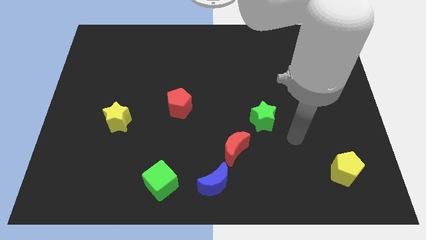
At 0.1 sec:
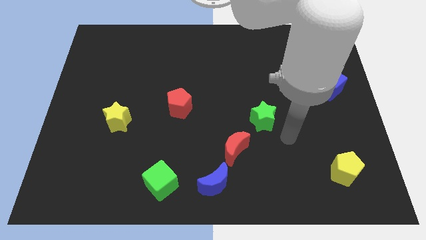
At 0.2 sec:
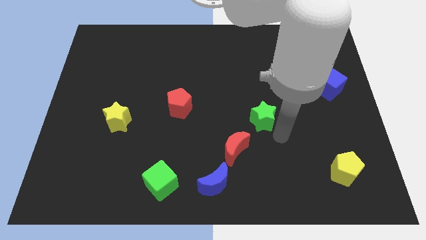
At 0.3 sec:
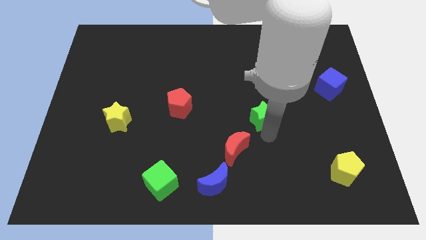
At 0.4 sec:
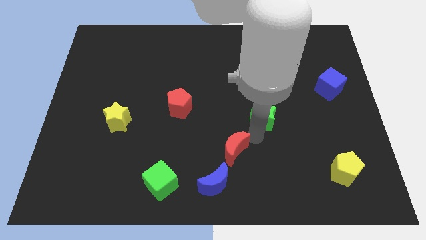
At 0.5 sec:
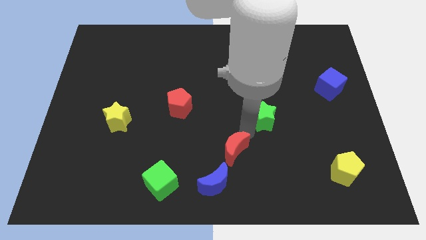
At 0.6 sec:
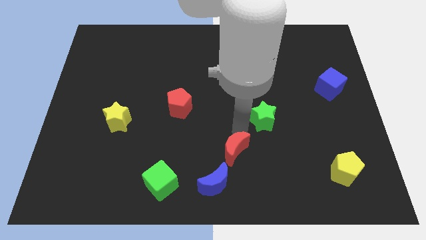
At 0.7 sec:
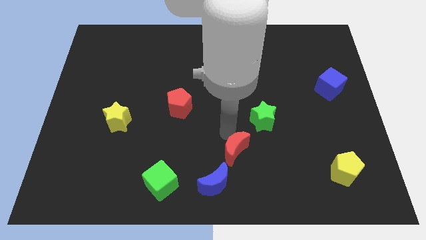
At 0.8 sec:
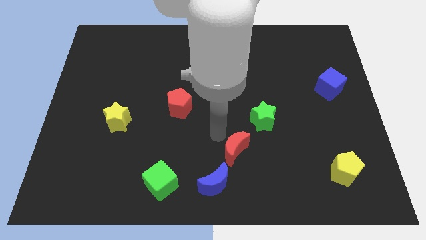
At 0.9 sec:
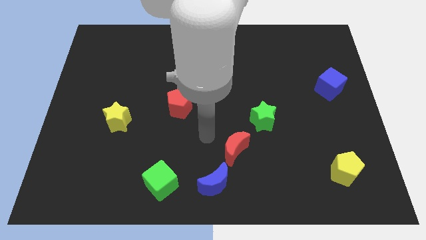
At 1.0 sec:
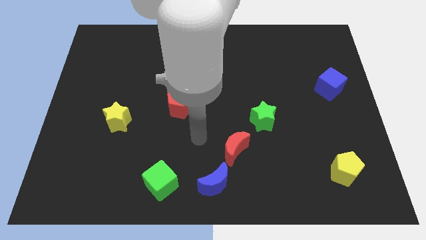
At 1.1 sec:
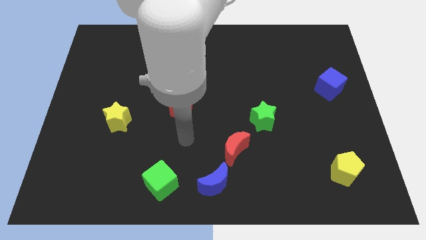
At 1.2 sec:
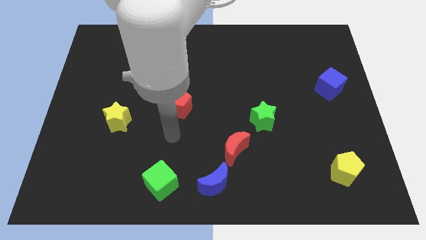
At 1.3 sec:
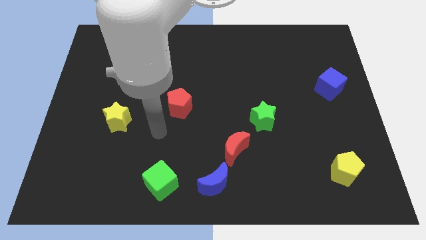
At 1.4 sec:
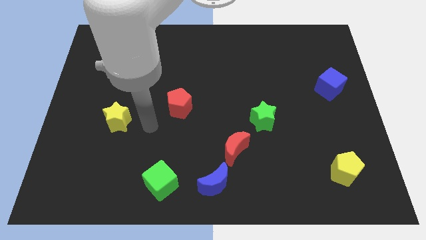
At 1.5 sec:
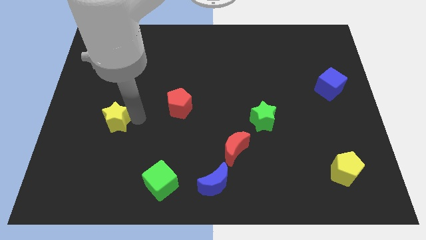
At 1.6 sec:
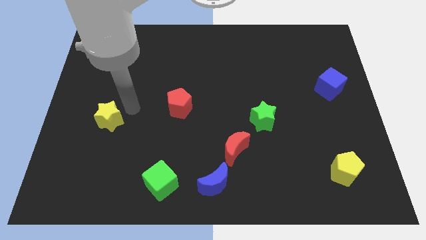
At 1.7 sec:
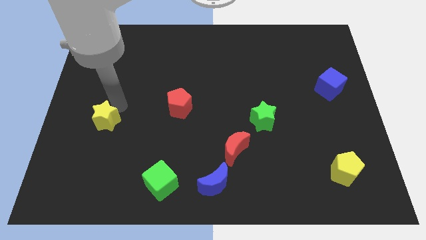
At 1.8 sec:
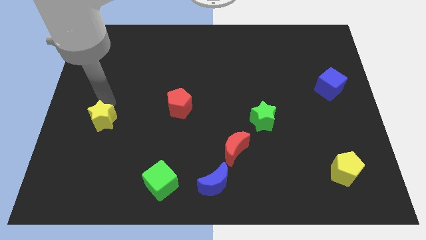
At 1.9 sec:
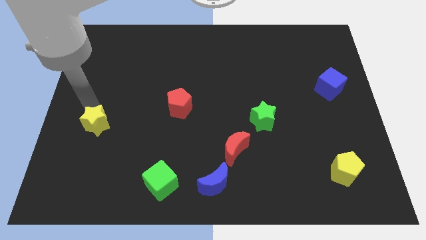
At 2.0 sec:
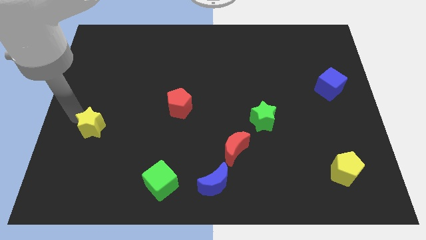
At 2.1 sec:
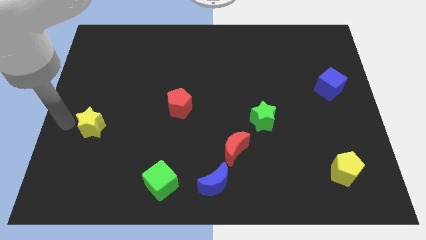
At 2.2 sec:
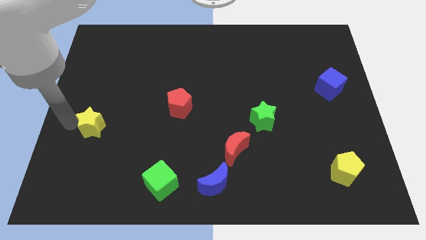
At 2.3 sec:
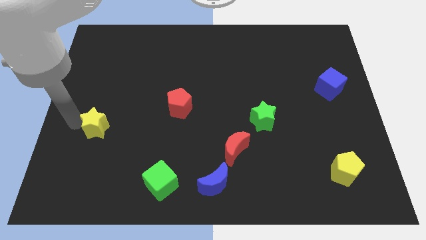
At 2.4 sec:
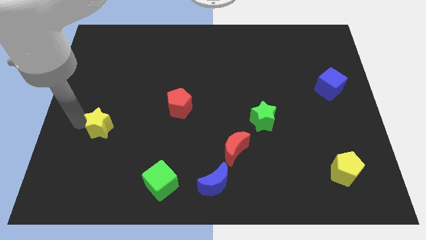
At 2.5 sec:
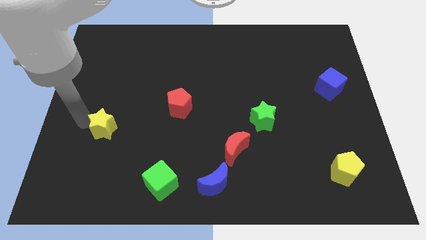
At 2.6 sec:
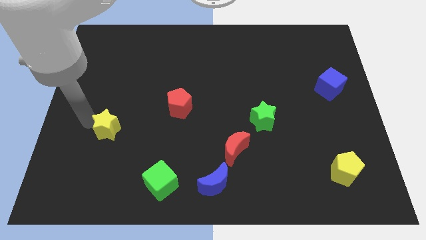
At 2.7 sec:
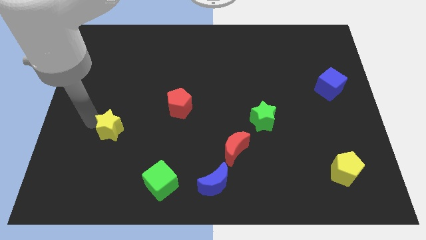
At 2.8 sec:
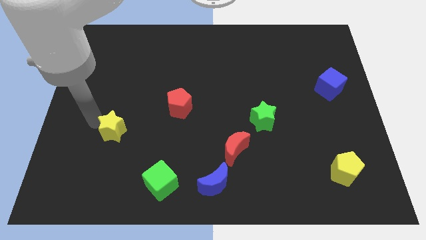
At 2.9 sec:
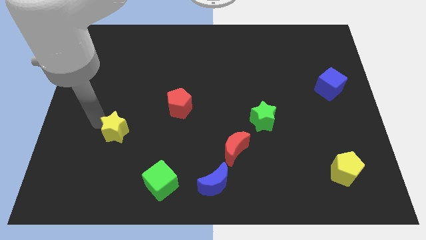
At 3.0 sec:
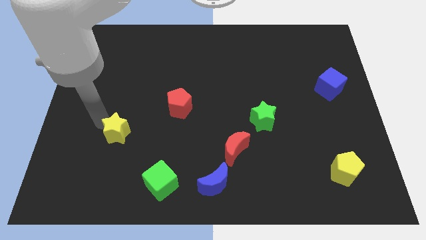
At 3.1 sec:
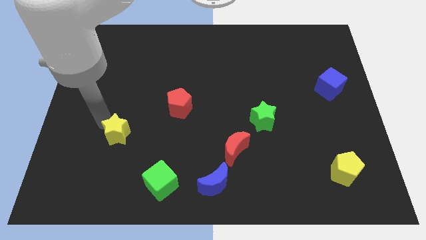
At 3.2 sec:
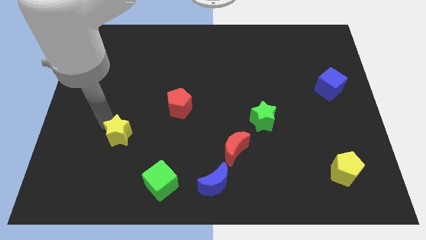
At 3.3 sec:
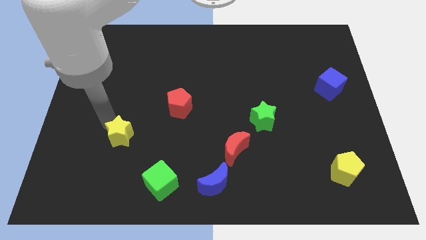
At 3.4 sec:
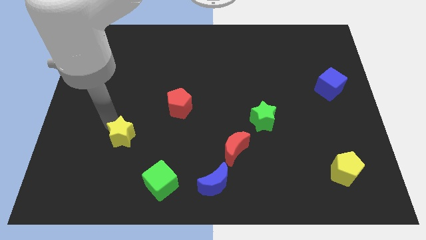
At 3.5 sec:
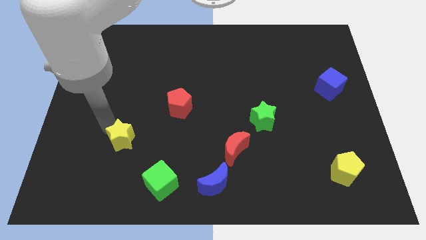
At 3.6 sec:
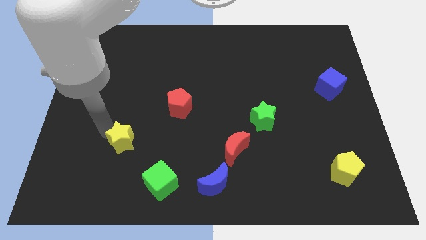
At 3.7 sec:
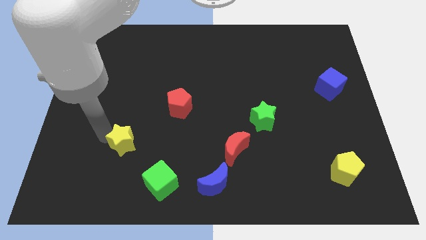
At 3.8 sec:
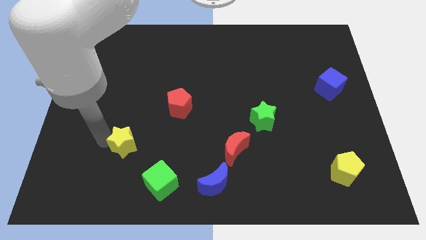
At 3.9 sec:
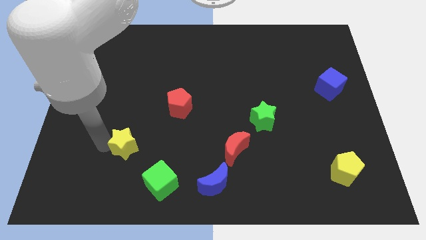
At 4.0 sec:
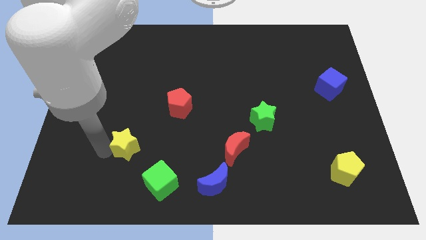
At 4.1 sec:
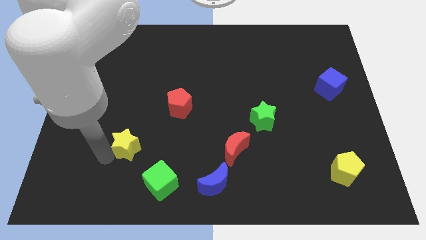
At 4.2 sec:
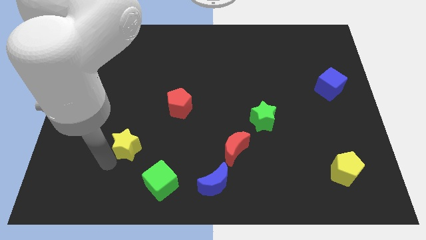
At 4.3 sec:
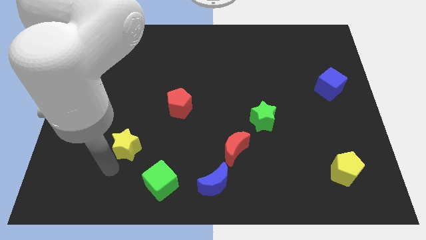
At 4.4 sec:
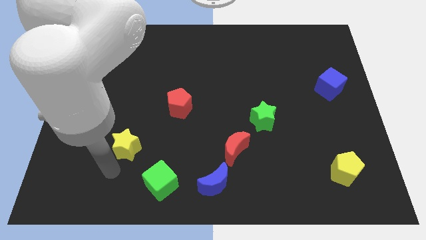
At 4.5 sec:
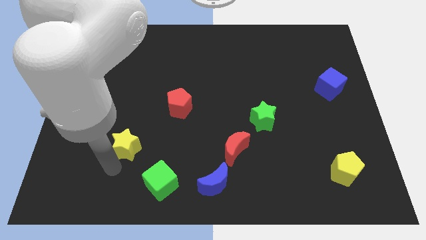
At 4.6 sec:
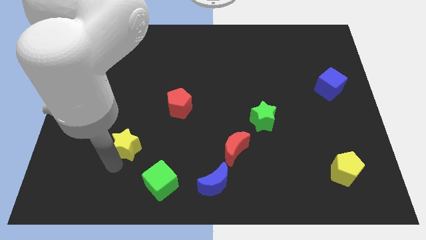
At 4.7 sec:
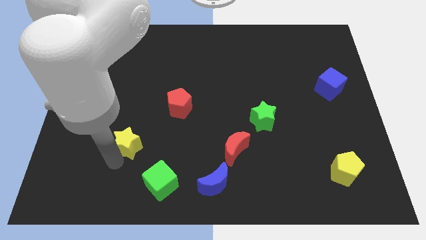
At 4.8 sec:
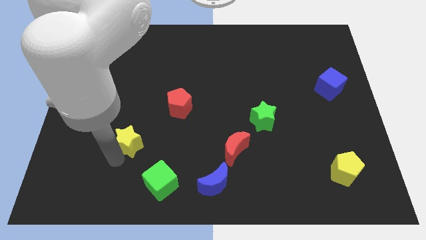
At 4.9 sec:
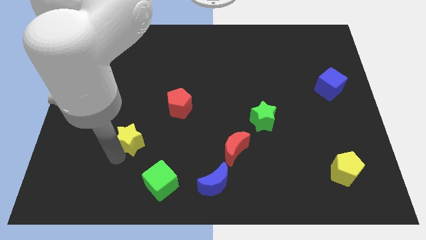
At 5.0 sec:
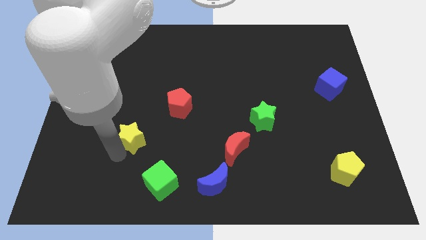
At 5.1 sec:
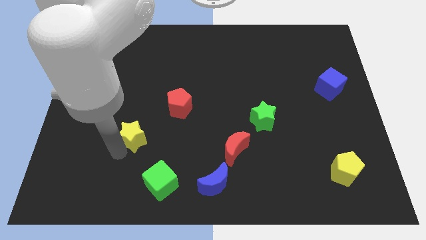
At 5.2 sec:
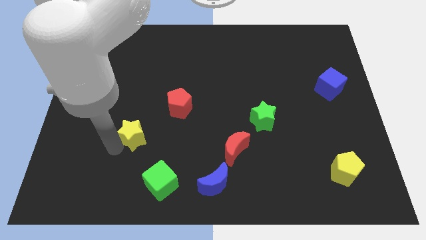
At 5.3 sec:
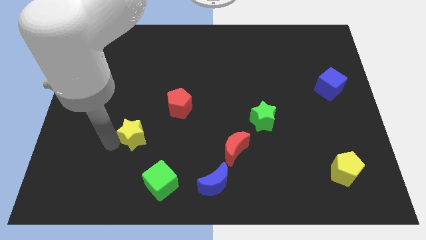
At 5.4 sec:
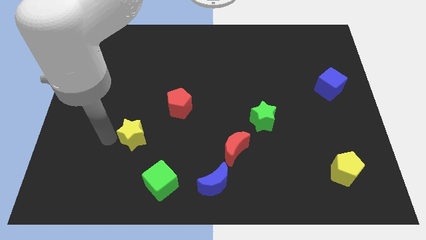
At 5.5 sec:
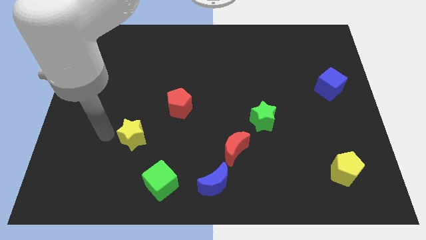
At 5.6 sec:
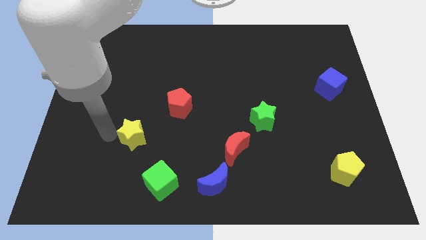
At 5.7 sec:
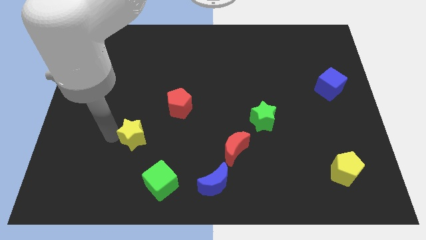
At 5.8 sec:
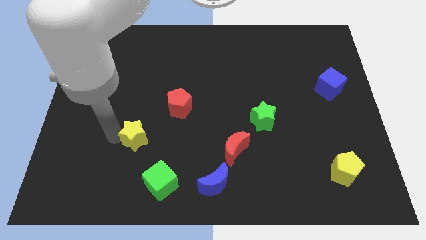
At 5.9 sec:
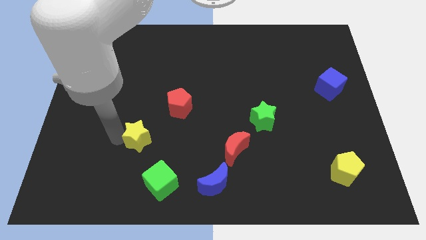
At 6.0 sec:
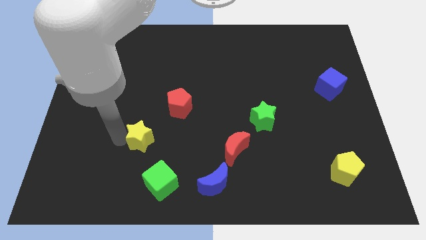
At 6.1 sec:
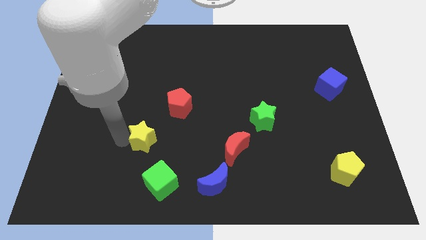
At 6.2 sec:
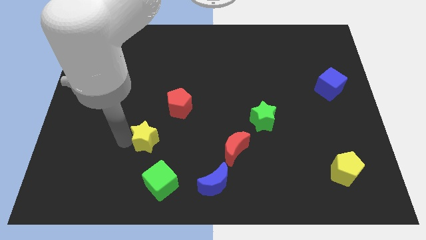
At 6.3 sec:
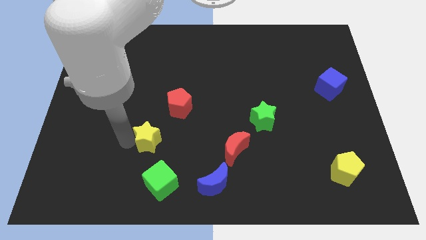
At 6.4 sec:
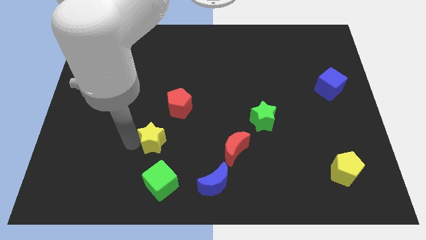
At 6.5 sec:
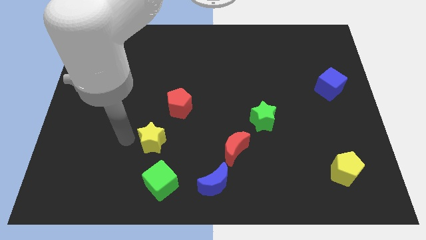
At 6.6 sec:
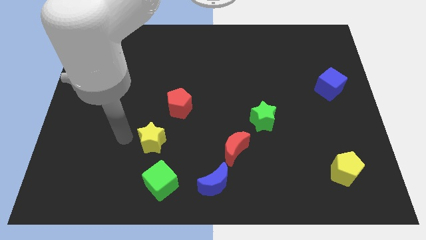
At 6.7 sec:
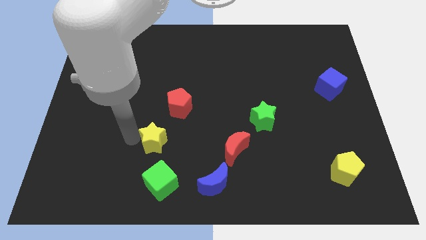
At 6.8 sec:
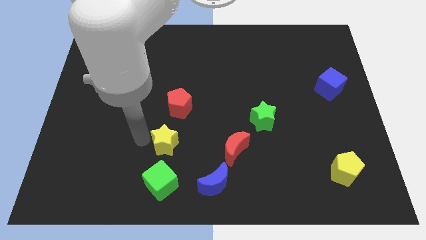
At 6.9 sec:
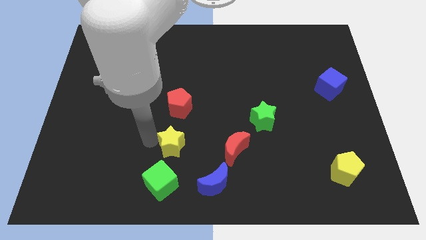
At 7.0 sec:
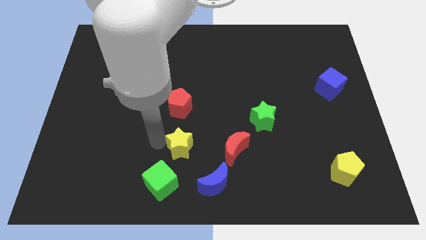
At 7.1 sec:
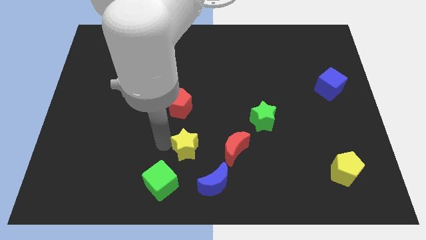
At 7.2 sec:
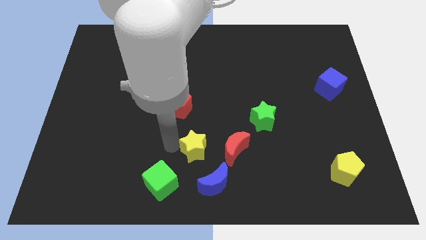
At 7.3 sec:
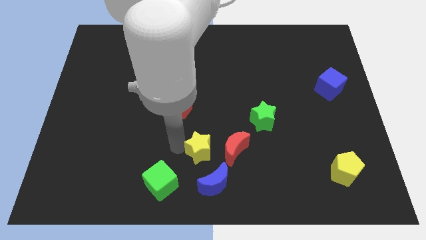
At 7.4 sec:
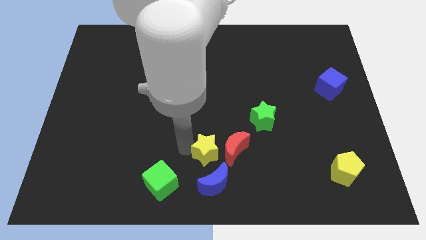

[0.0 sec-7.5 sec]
put the yellow star next to the red moon
